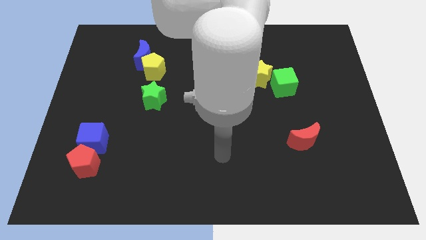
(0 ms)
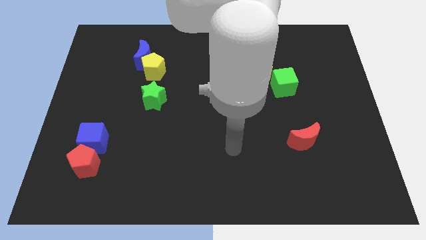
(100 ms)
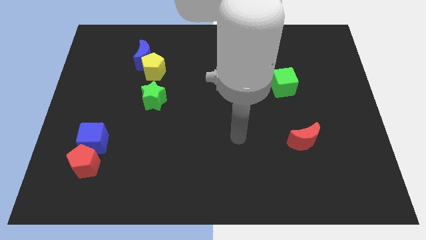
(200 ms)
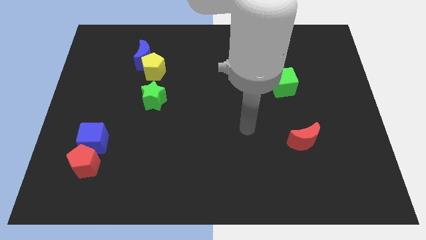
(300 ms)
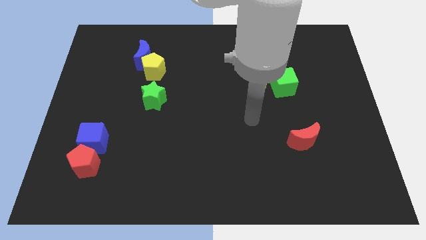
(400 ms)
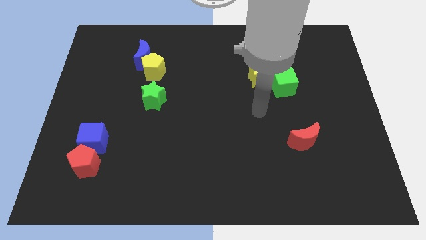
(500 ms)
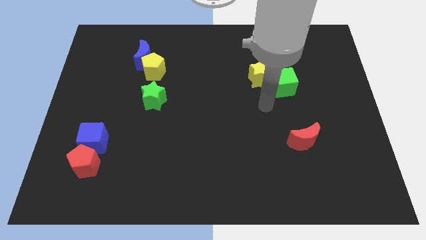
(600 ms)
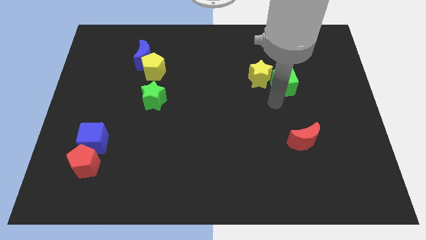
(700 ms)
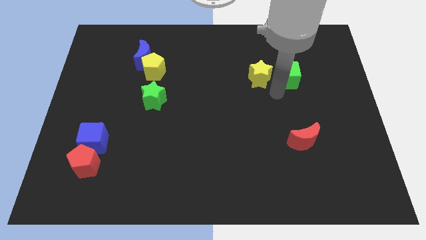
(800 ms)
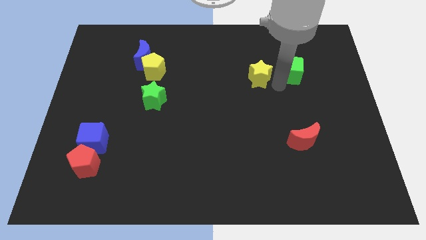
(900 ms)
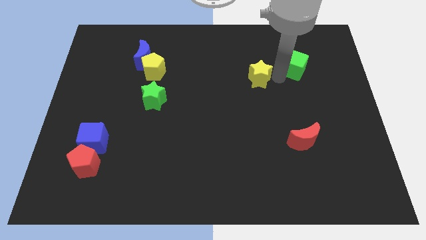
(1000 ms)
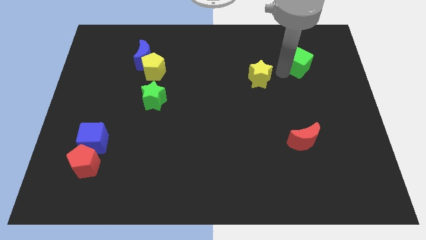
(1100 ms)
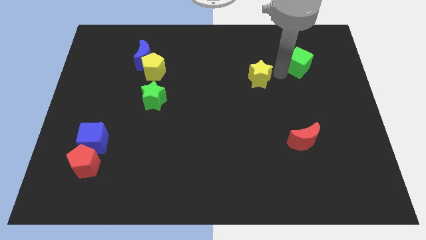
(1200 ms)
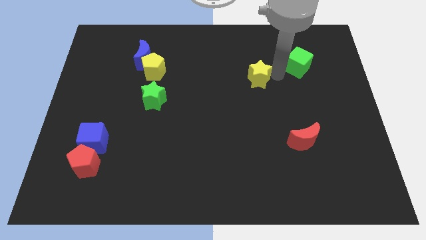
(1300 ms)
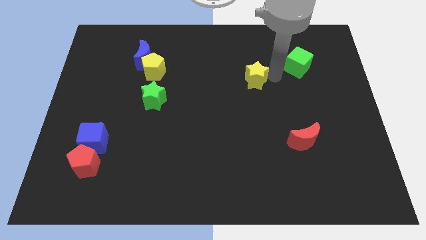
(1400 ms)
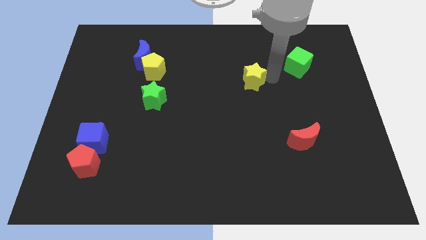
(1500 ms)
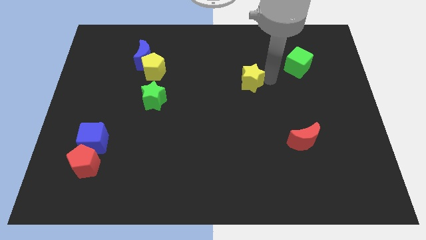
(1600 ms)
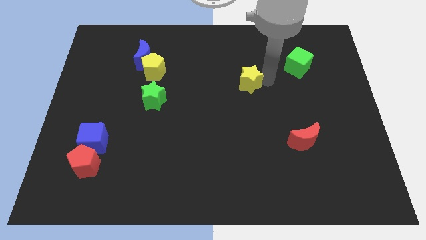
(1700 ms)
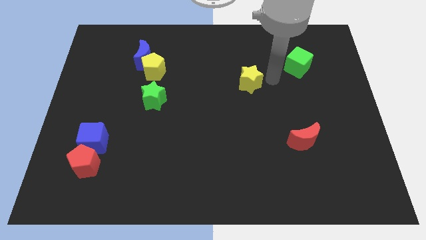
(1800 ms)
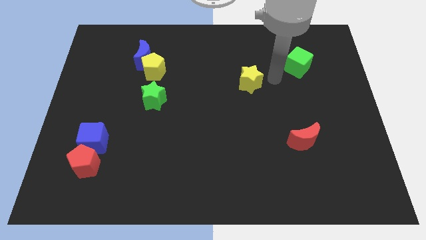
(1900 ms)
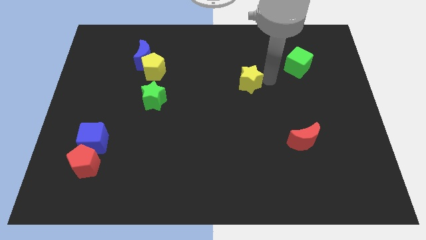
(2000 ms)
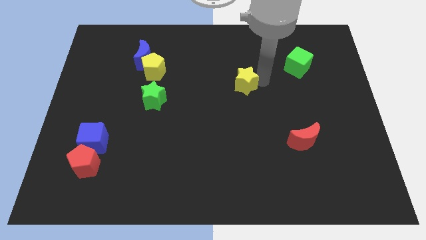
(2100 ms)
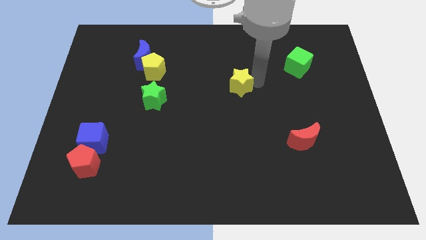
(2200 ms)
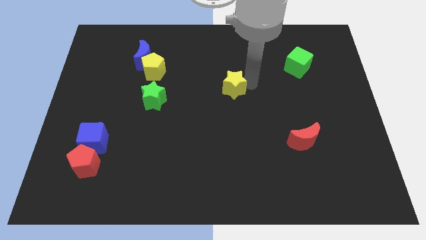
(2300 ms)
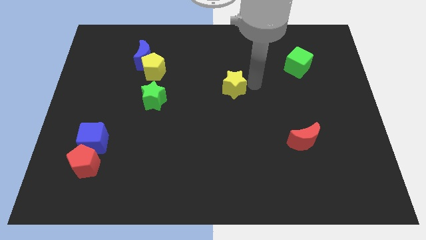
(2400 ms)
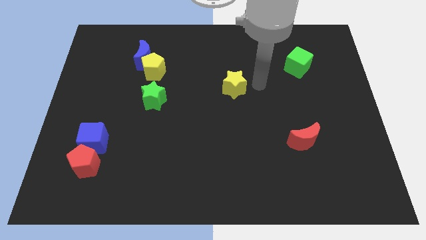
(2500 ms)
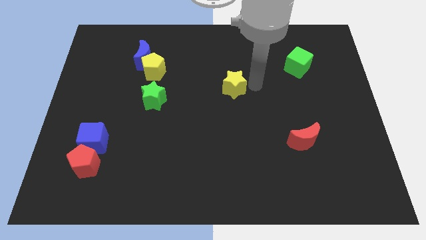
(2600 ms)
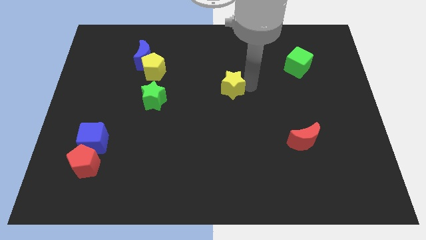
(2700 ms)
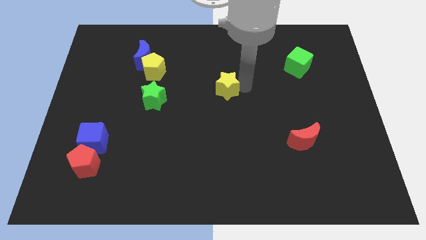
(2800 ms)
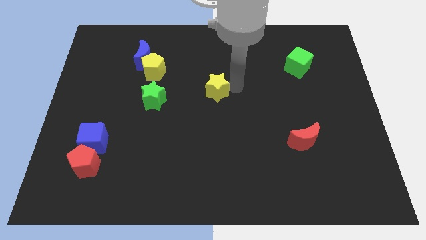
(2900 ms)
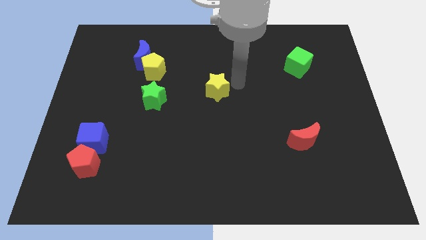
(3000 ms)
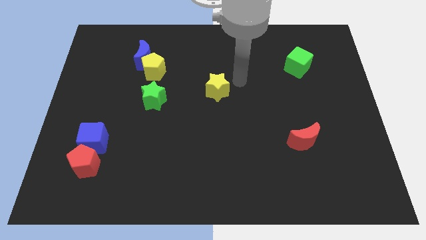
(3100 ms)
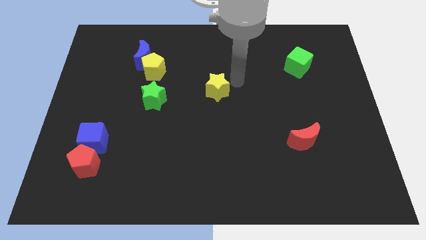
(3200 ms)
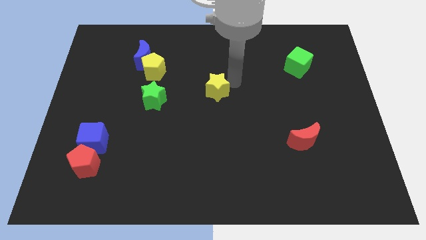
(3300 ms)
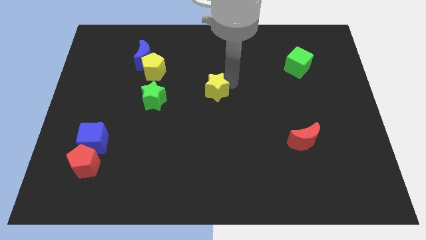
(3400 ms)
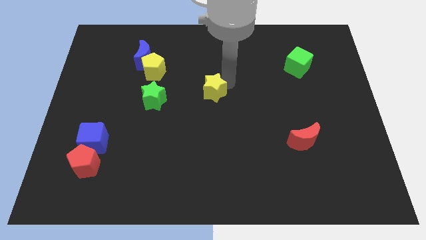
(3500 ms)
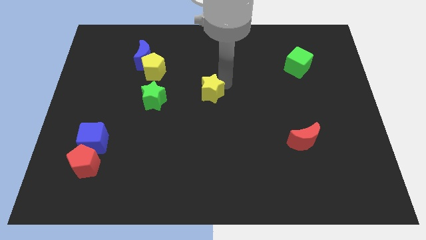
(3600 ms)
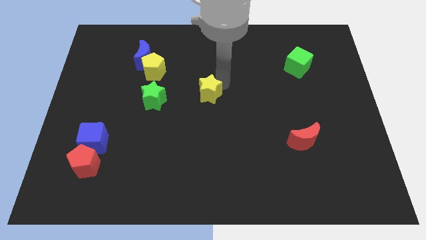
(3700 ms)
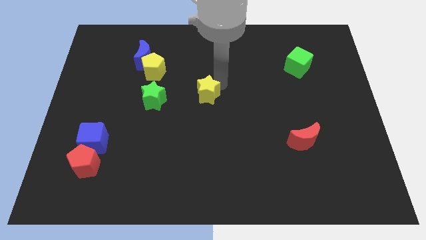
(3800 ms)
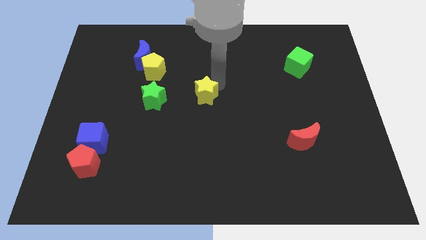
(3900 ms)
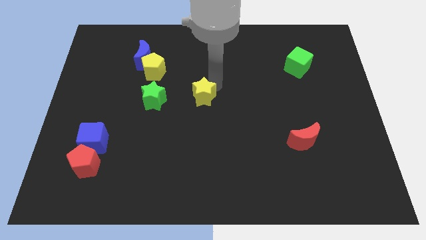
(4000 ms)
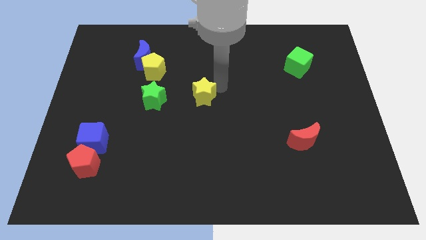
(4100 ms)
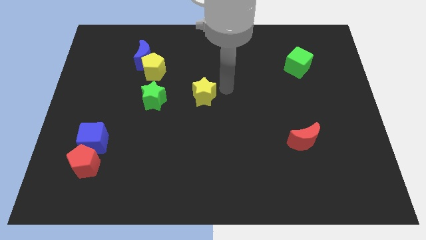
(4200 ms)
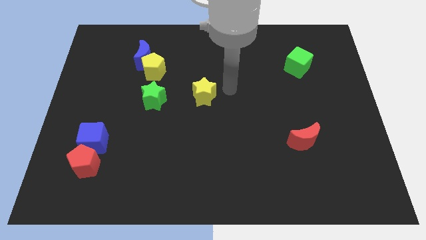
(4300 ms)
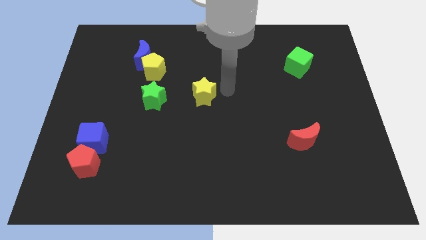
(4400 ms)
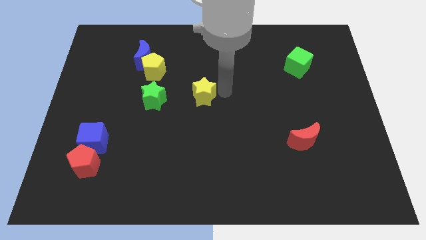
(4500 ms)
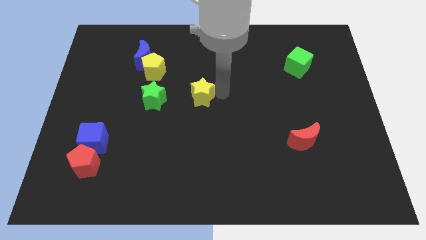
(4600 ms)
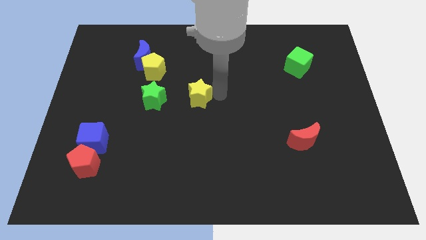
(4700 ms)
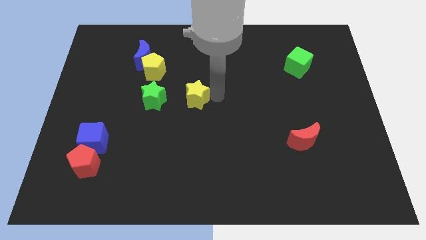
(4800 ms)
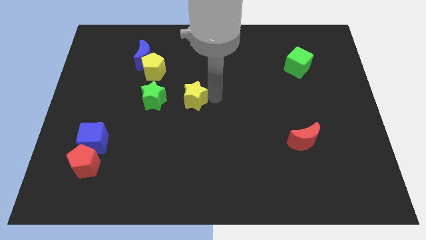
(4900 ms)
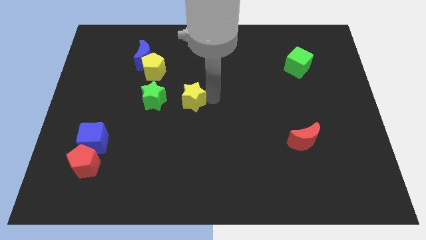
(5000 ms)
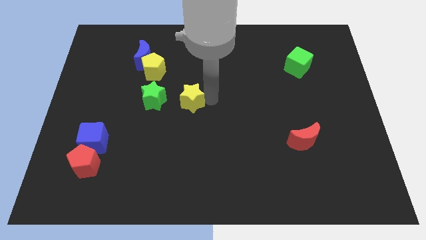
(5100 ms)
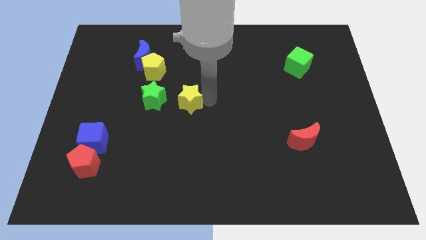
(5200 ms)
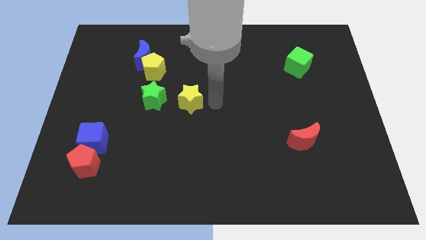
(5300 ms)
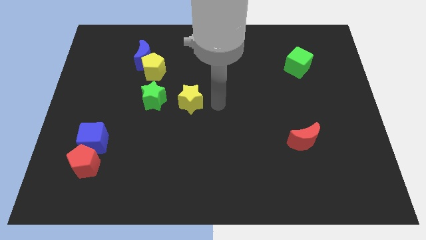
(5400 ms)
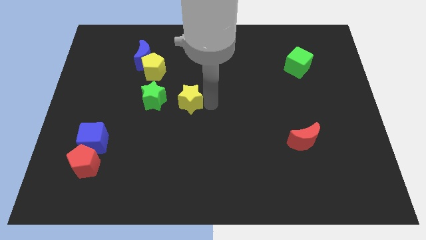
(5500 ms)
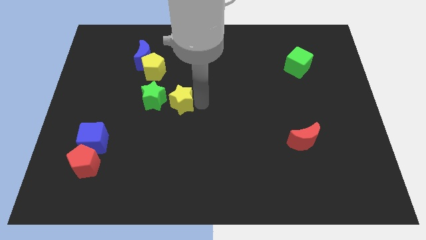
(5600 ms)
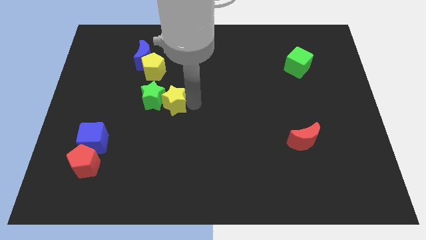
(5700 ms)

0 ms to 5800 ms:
slide the yellow star close to the green star
